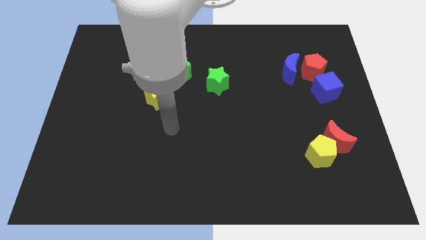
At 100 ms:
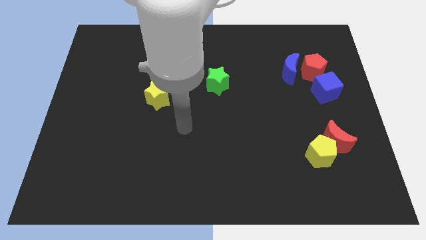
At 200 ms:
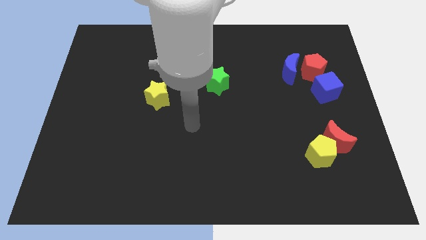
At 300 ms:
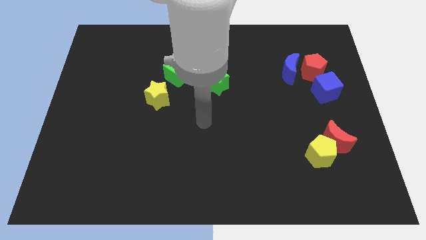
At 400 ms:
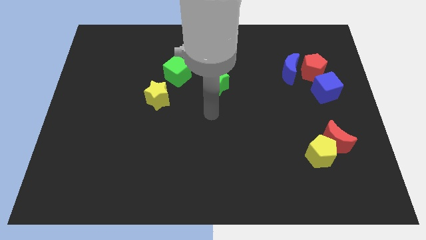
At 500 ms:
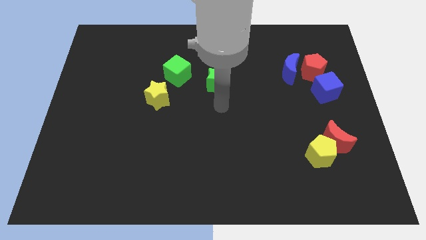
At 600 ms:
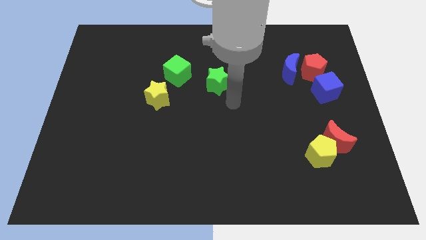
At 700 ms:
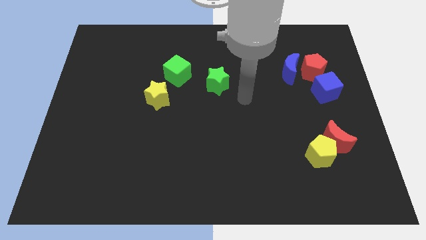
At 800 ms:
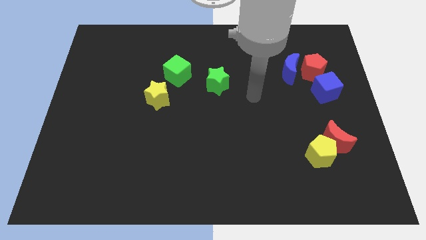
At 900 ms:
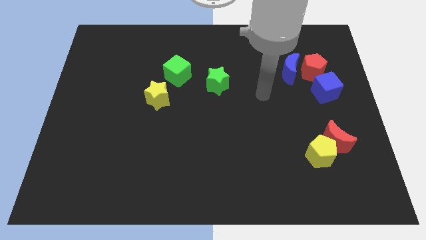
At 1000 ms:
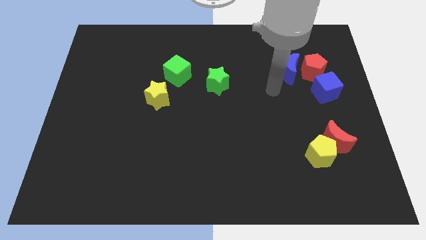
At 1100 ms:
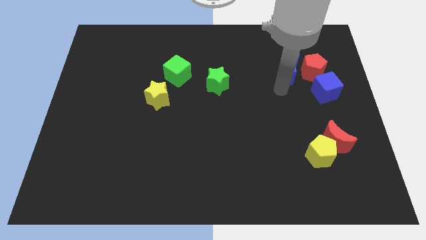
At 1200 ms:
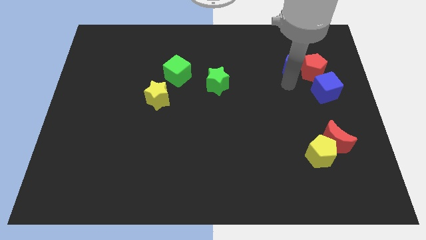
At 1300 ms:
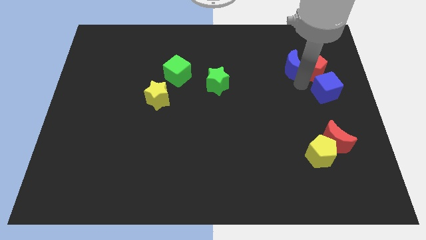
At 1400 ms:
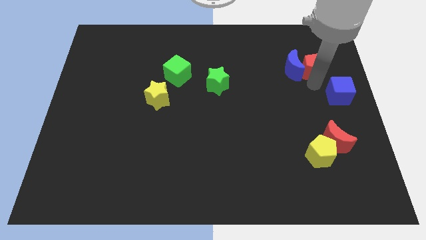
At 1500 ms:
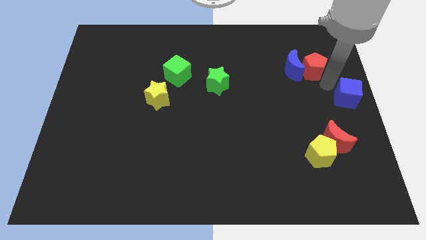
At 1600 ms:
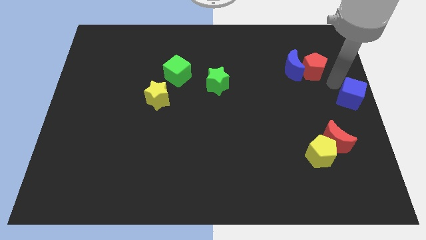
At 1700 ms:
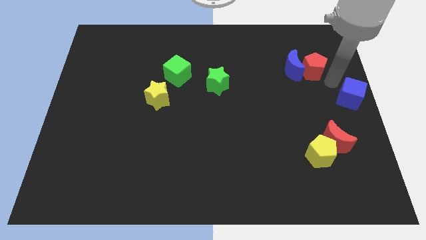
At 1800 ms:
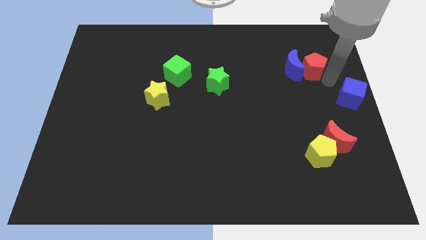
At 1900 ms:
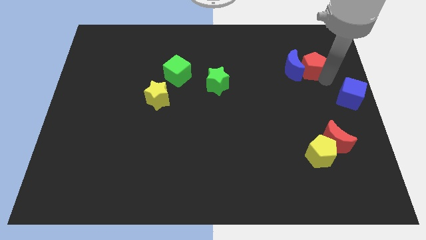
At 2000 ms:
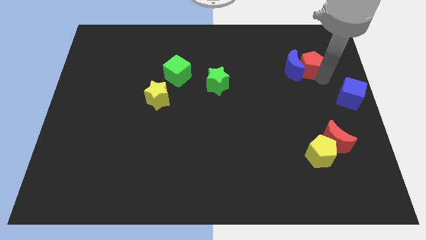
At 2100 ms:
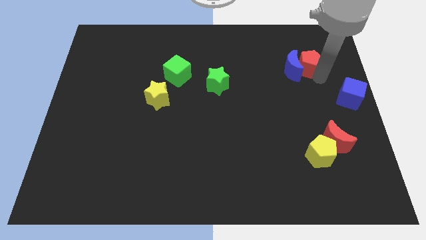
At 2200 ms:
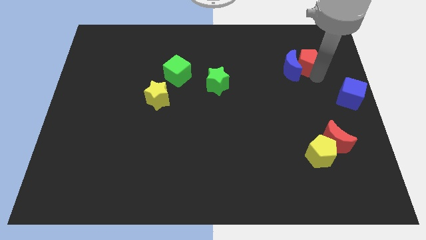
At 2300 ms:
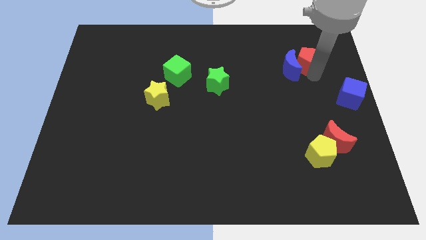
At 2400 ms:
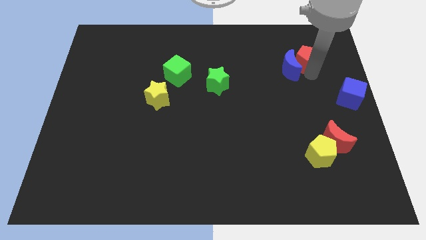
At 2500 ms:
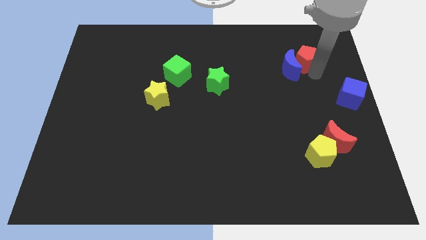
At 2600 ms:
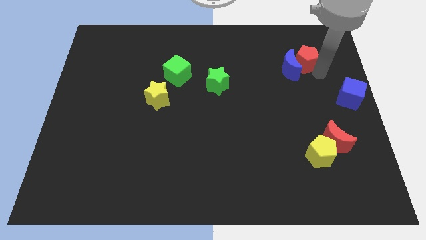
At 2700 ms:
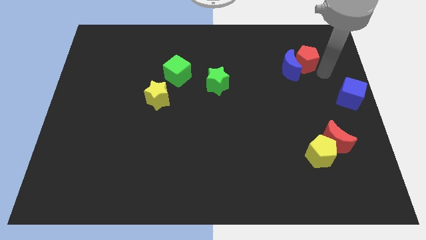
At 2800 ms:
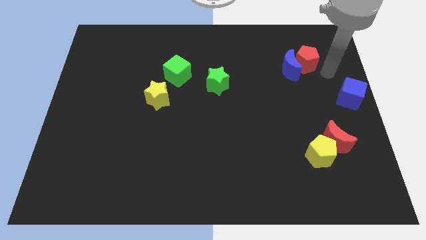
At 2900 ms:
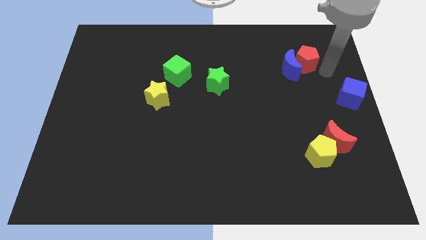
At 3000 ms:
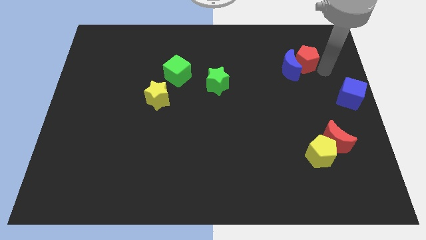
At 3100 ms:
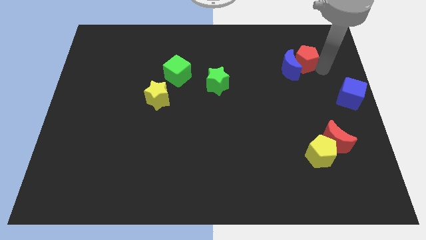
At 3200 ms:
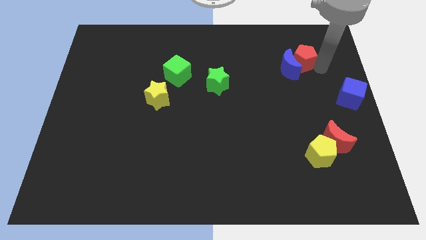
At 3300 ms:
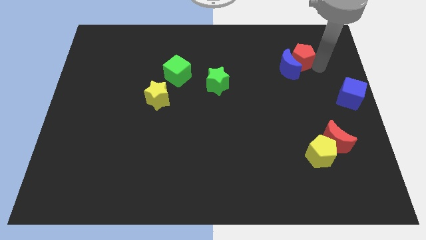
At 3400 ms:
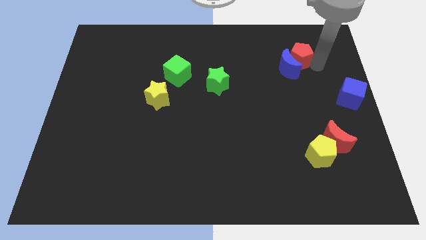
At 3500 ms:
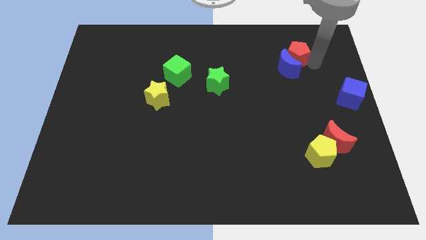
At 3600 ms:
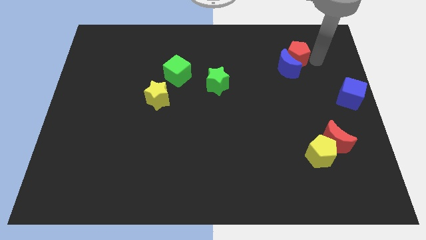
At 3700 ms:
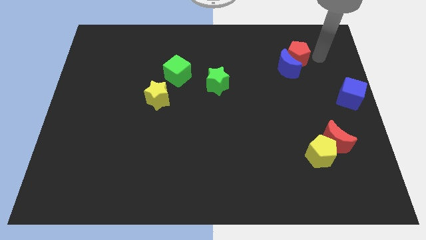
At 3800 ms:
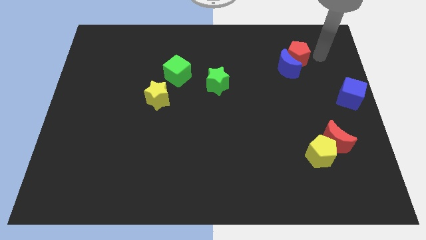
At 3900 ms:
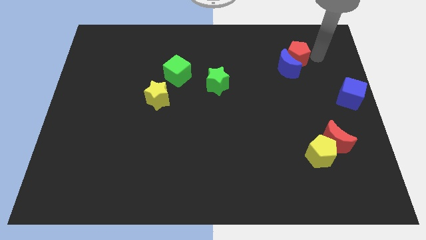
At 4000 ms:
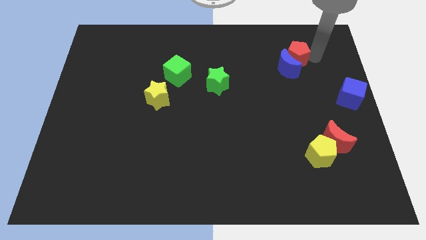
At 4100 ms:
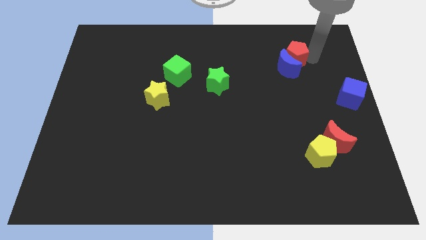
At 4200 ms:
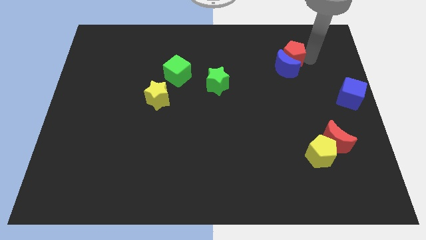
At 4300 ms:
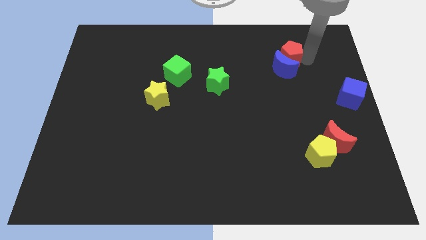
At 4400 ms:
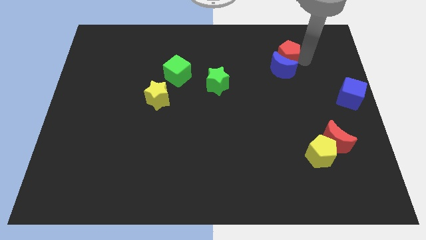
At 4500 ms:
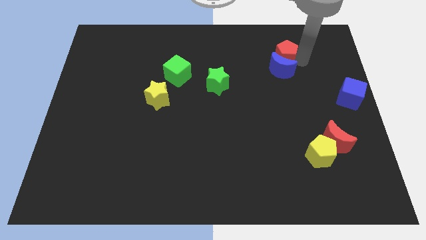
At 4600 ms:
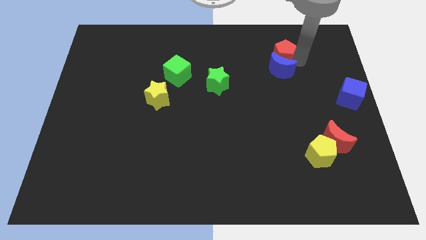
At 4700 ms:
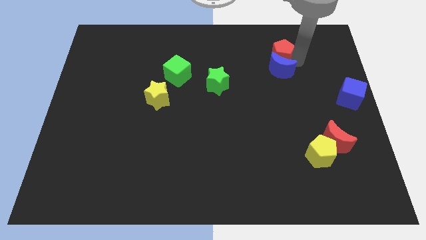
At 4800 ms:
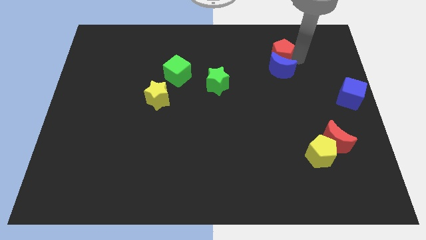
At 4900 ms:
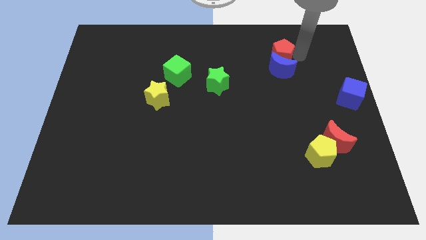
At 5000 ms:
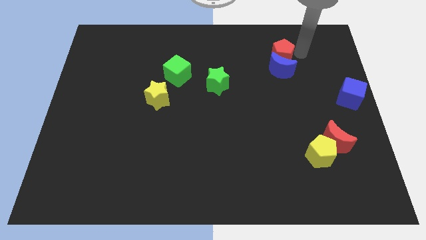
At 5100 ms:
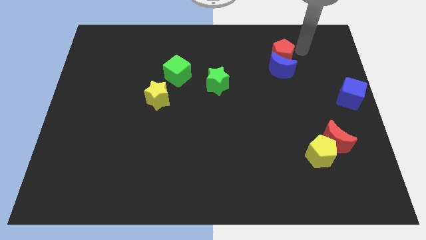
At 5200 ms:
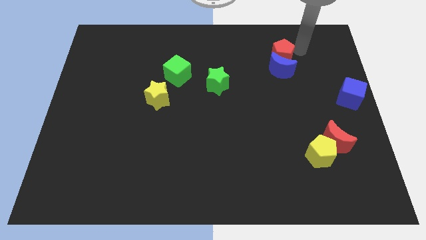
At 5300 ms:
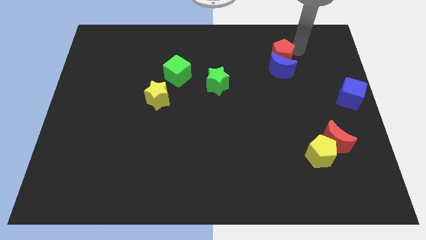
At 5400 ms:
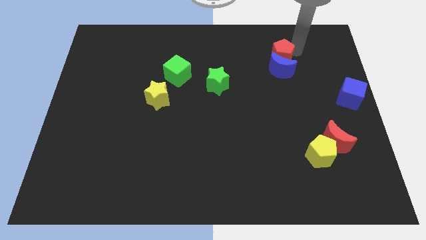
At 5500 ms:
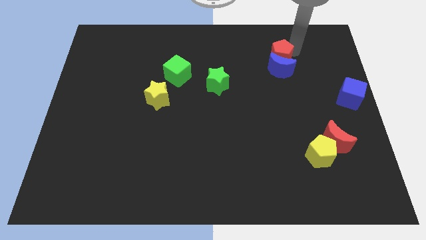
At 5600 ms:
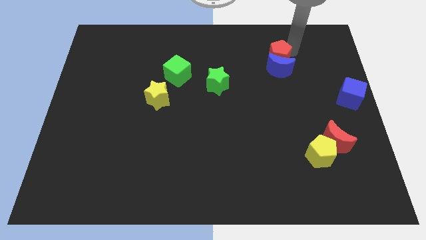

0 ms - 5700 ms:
slide the red pentagon left a little bit

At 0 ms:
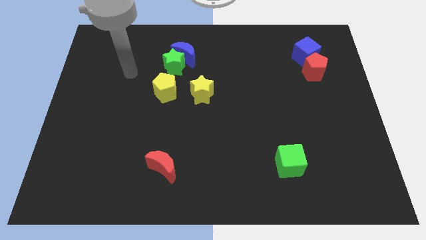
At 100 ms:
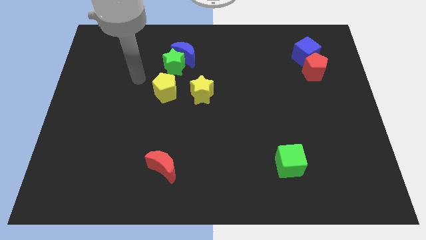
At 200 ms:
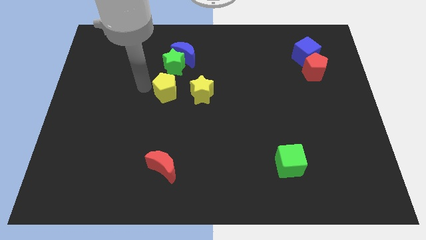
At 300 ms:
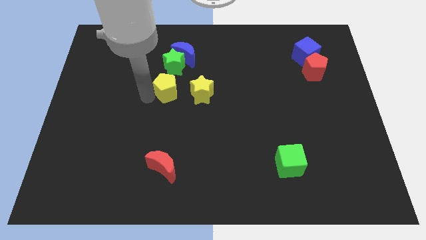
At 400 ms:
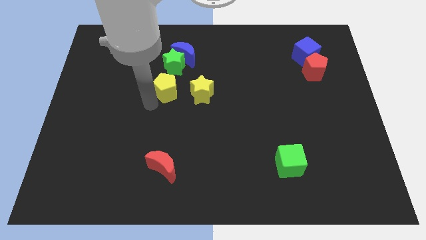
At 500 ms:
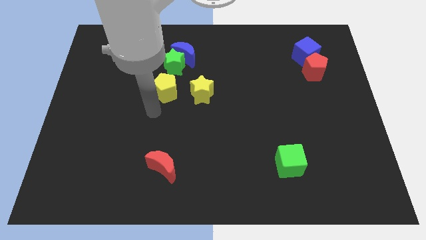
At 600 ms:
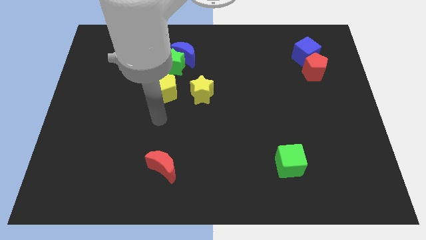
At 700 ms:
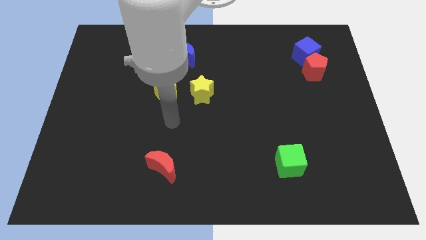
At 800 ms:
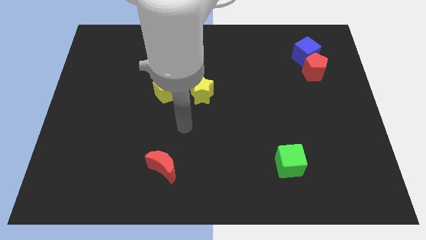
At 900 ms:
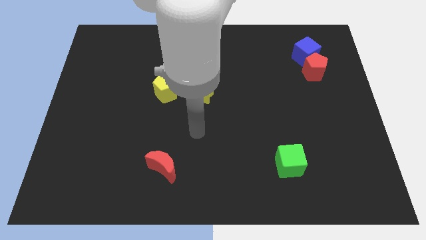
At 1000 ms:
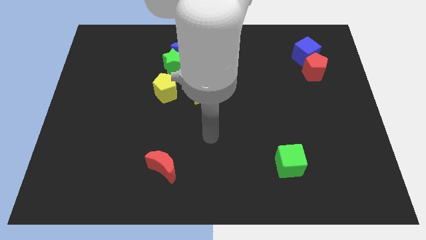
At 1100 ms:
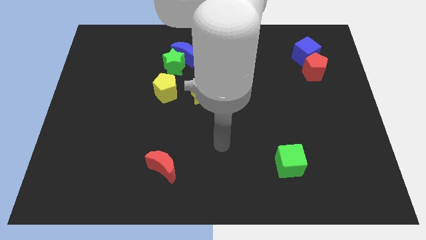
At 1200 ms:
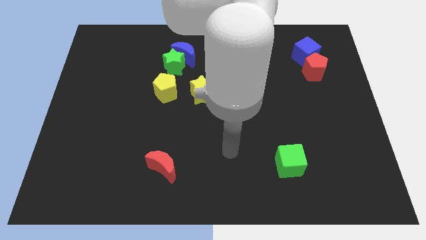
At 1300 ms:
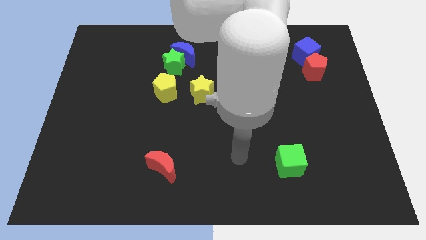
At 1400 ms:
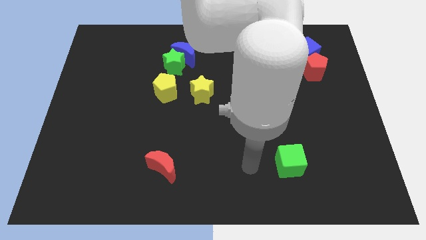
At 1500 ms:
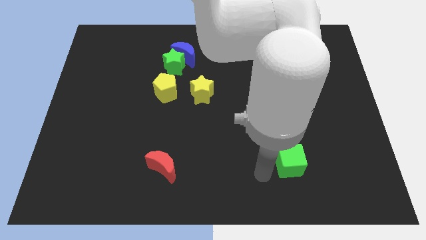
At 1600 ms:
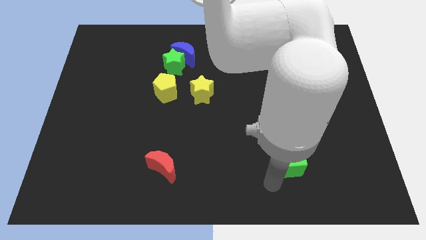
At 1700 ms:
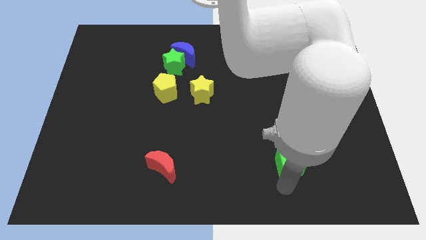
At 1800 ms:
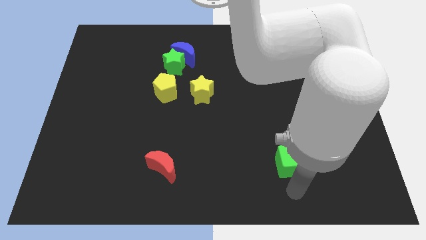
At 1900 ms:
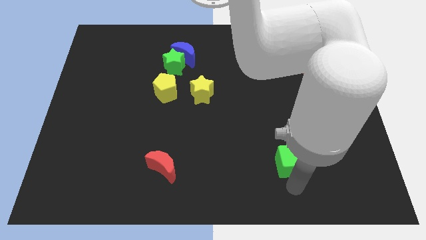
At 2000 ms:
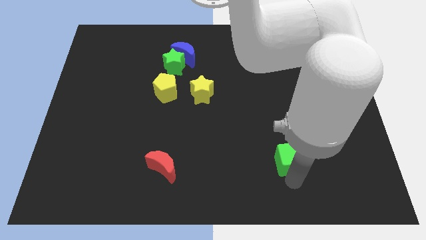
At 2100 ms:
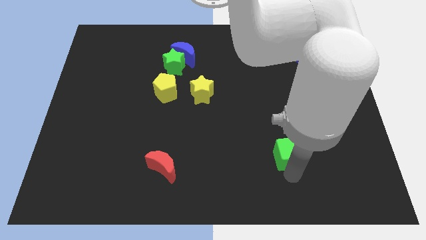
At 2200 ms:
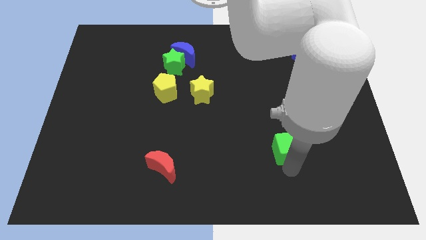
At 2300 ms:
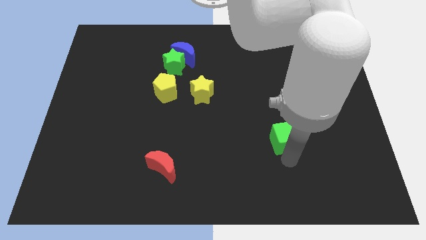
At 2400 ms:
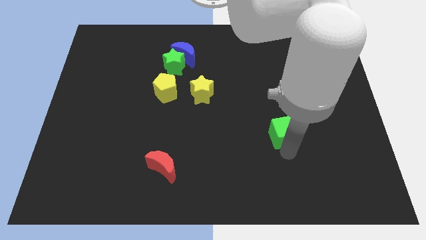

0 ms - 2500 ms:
slightly slide the green cube upwards
